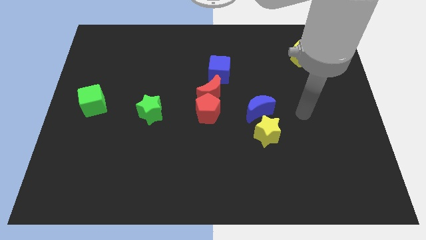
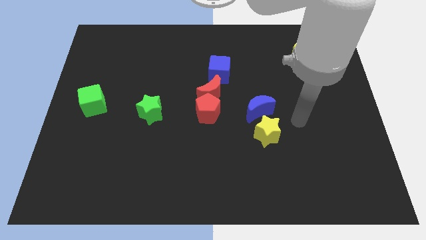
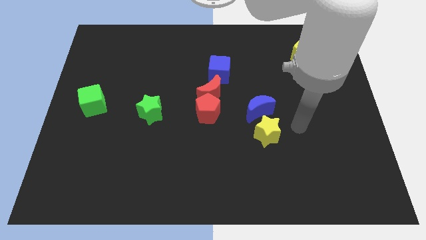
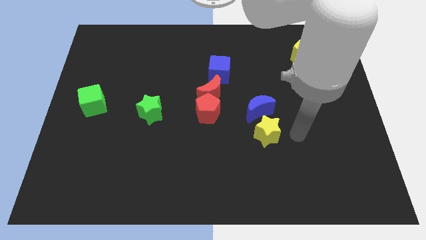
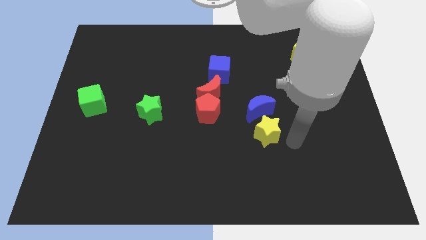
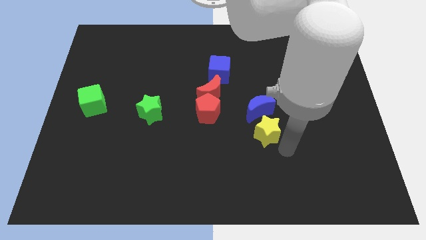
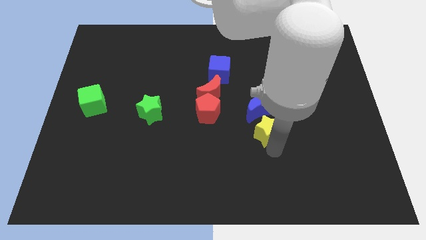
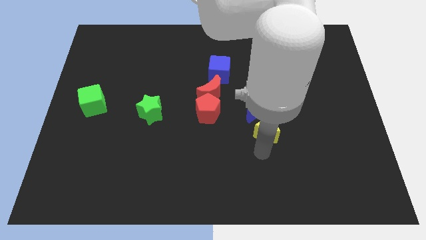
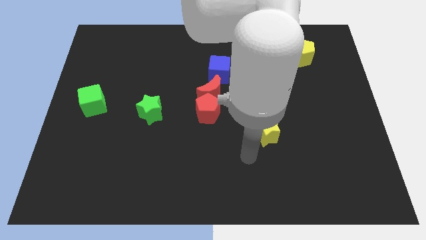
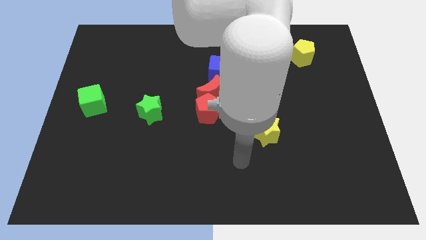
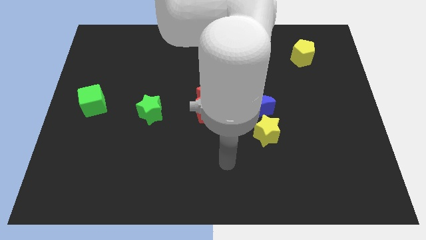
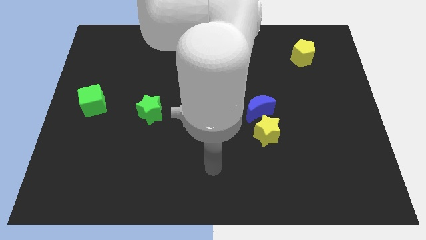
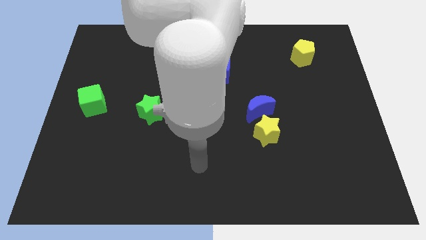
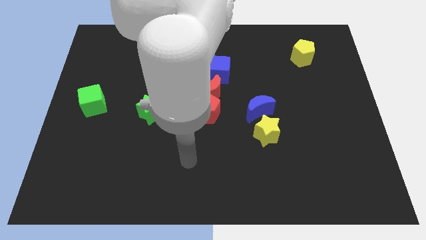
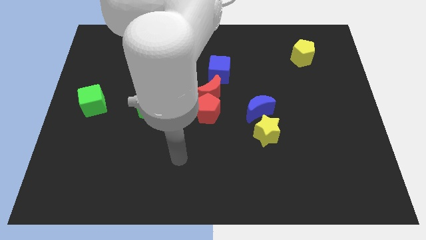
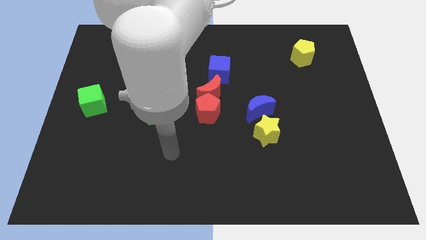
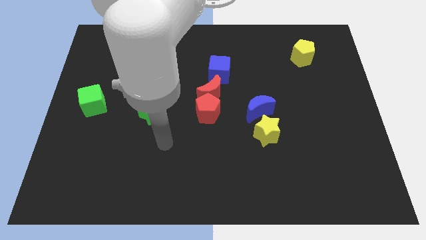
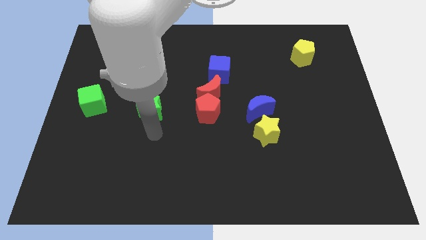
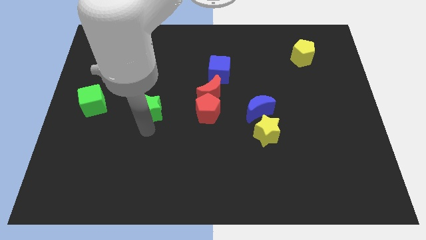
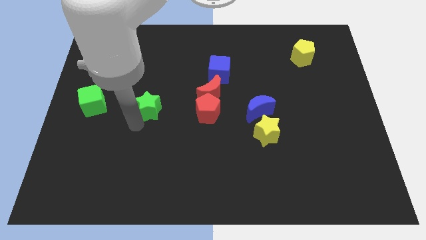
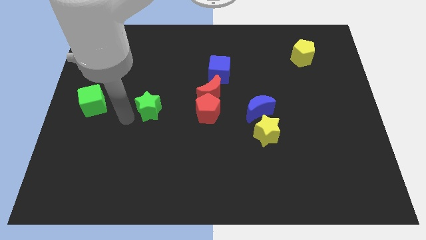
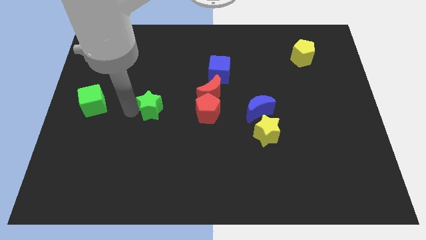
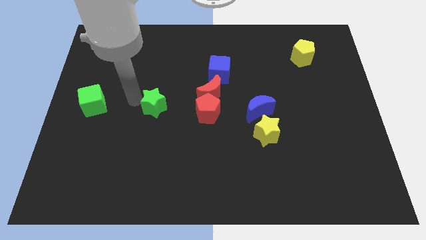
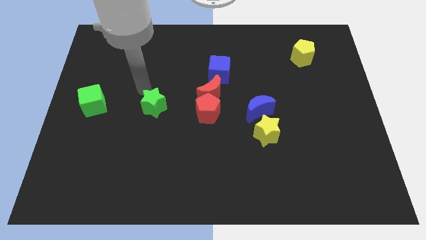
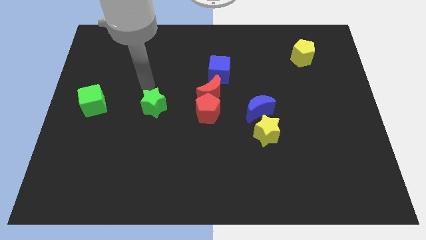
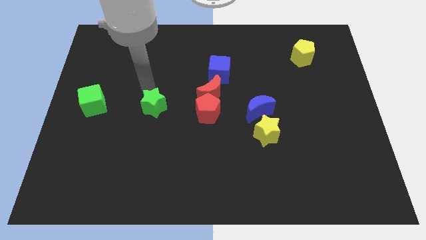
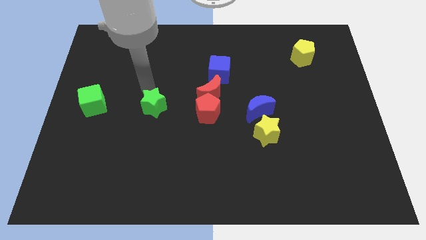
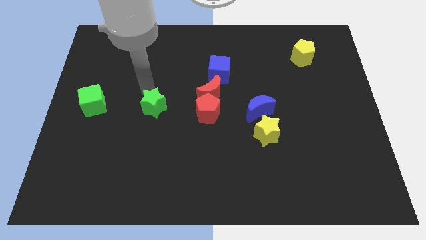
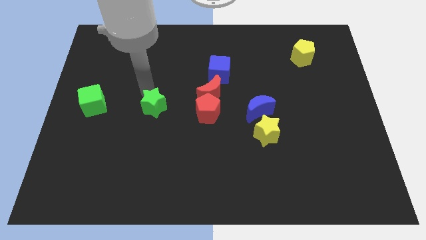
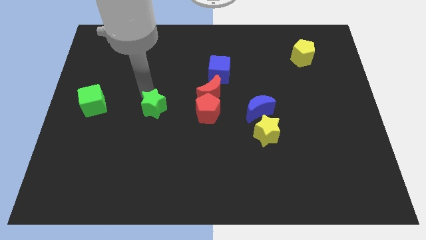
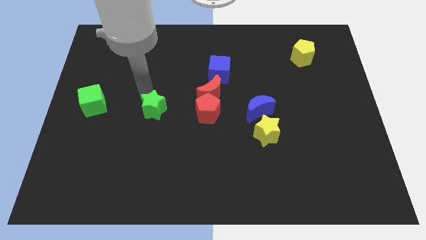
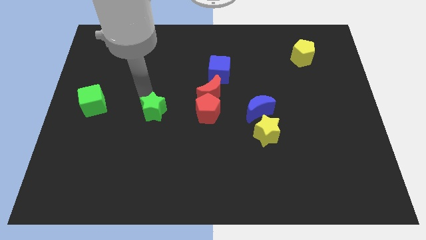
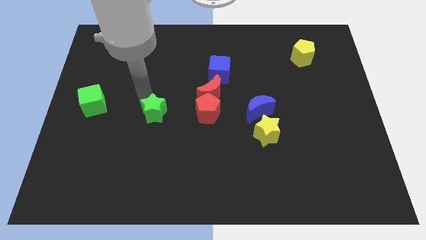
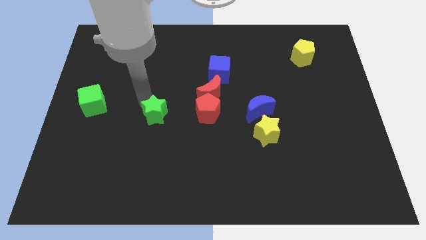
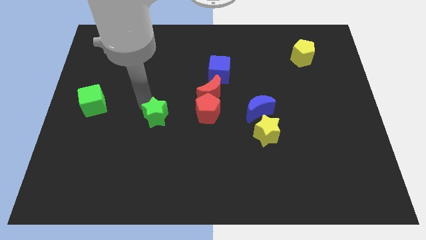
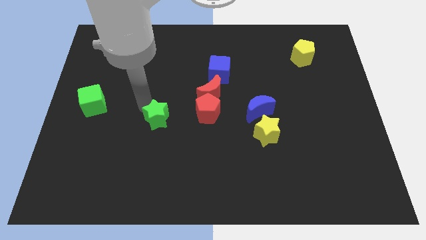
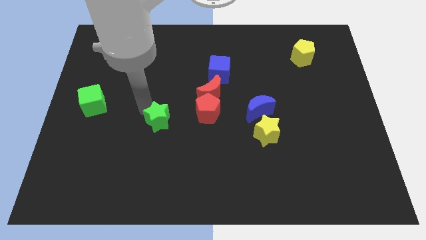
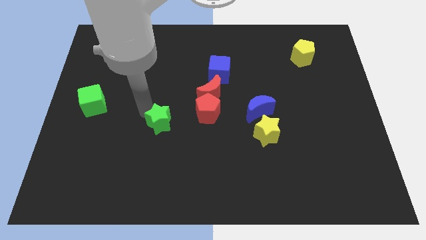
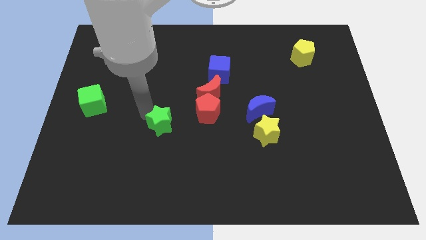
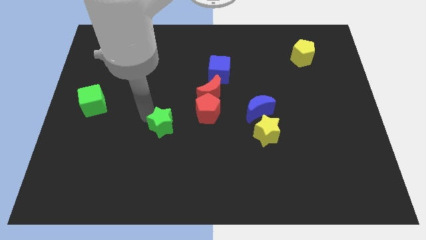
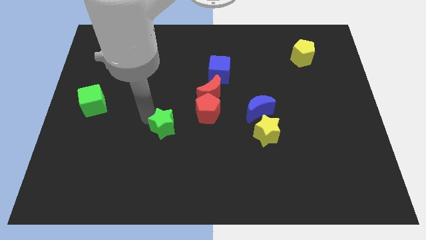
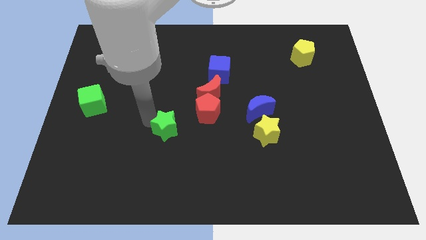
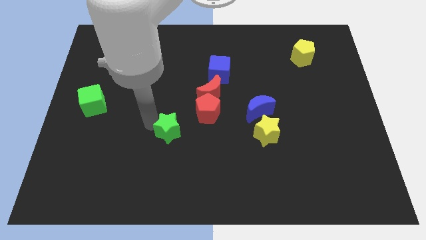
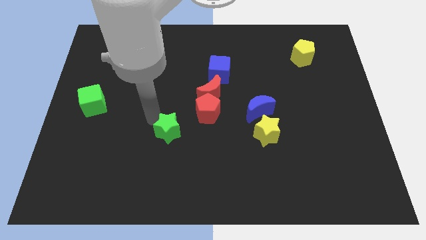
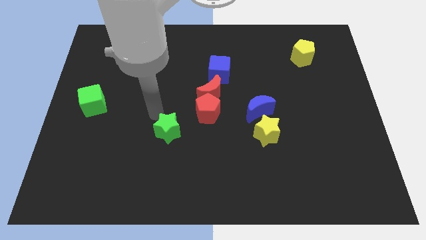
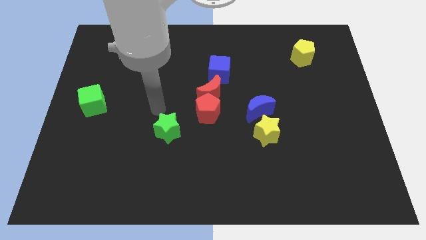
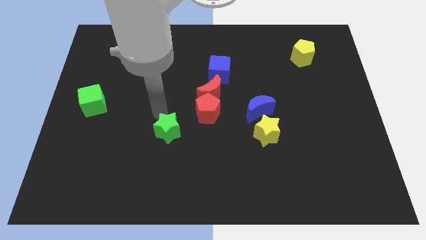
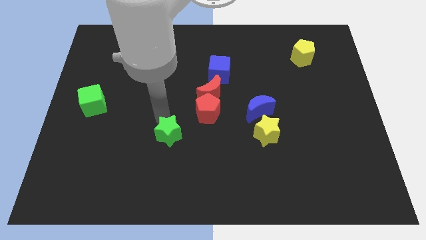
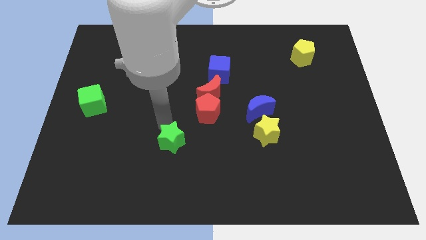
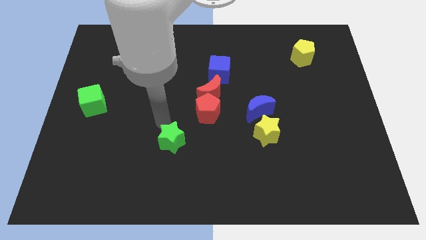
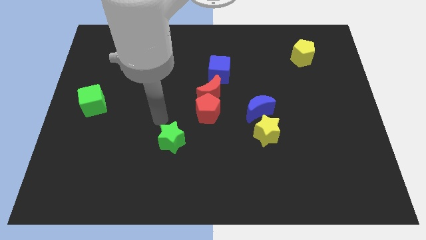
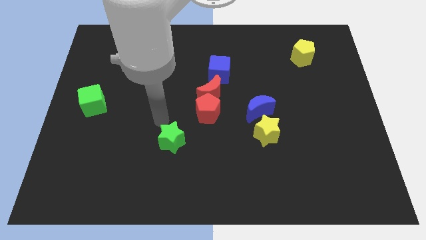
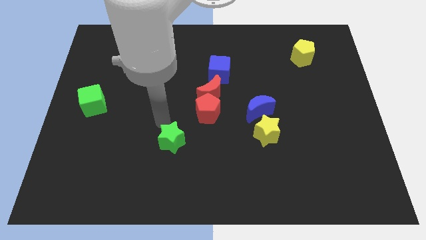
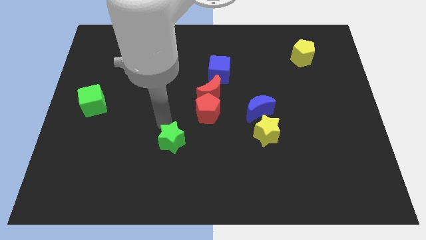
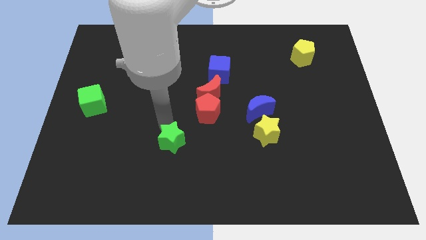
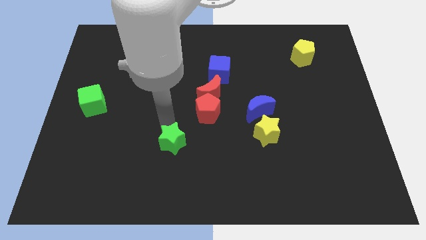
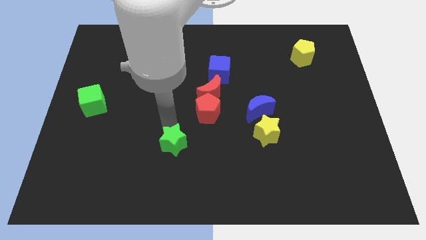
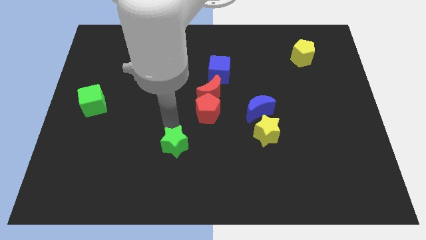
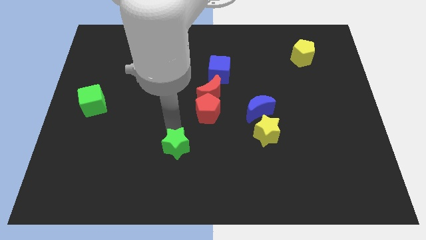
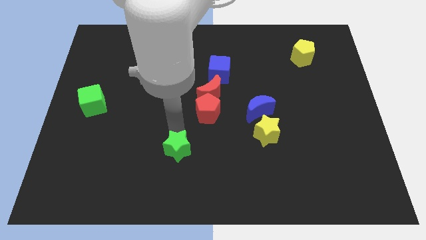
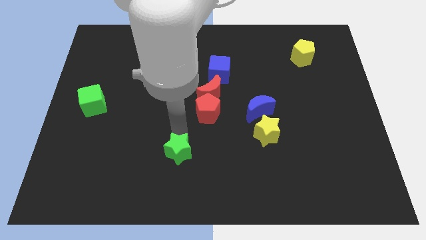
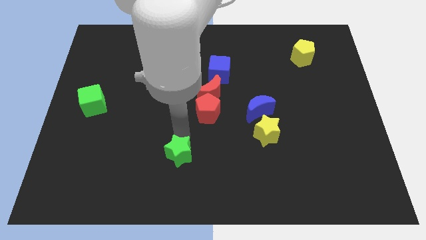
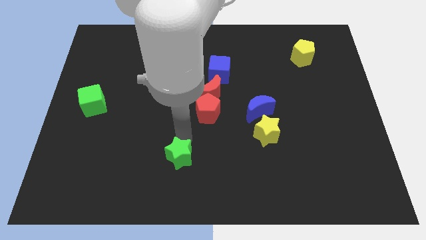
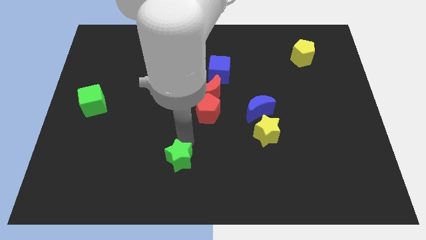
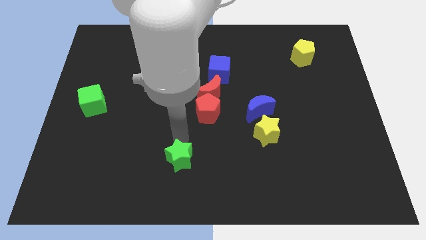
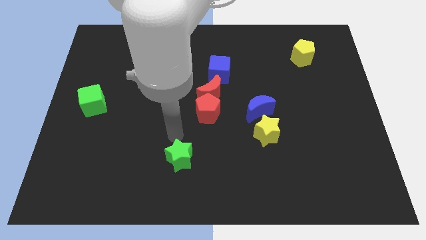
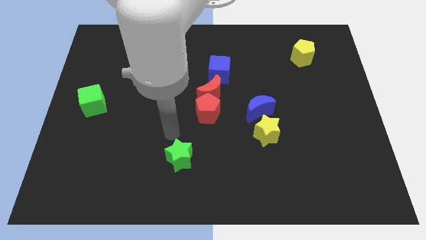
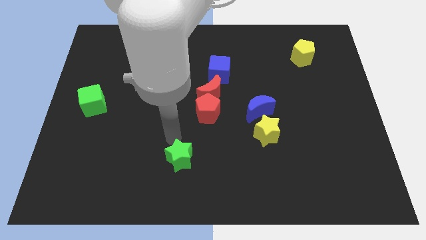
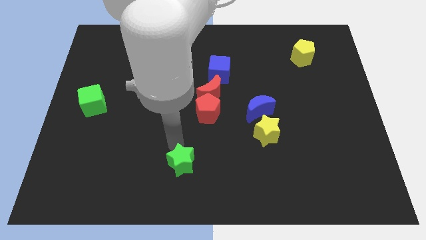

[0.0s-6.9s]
push the green star to the bottom
